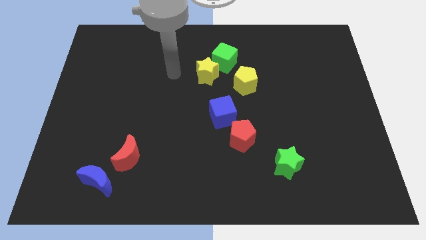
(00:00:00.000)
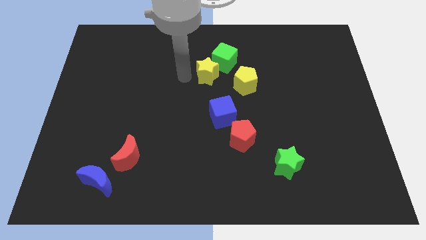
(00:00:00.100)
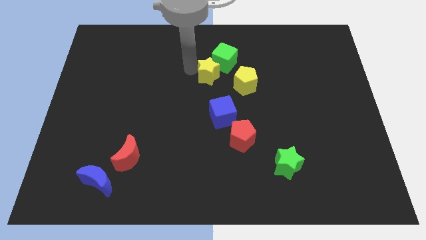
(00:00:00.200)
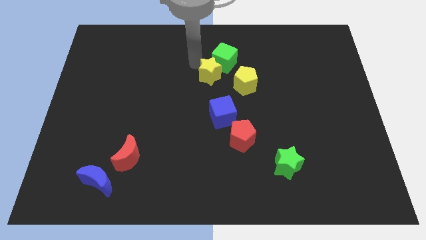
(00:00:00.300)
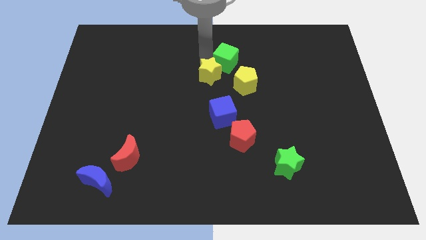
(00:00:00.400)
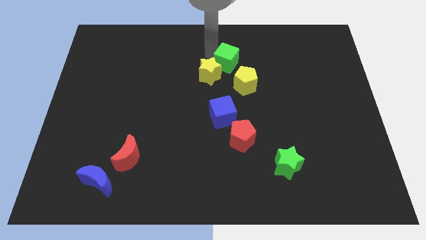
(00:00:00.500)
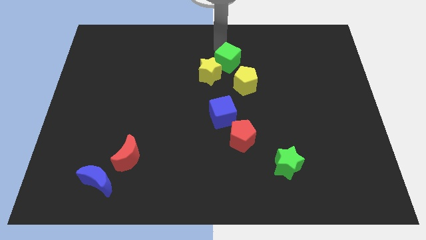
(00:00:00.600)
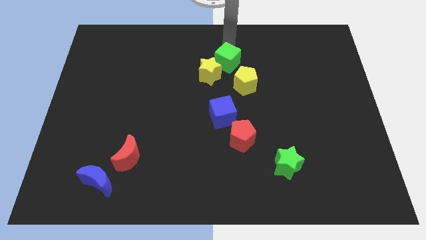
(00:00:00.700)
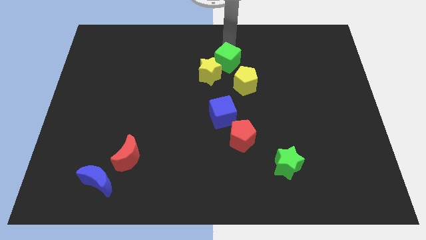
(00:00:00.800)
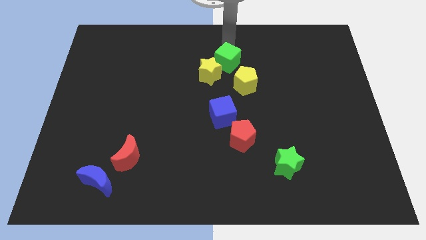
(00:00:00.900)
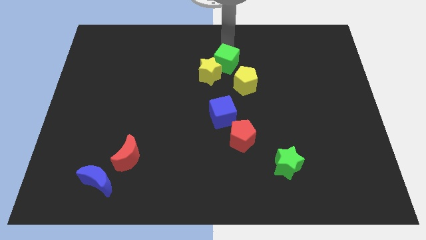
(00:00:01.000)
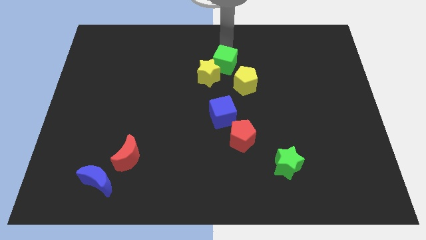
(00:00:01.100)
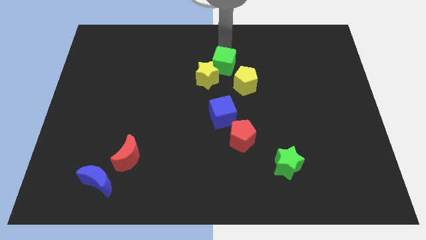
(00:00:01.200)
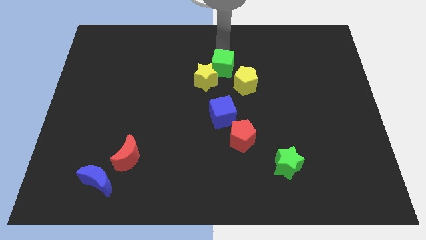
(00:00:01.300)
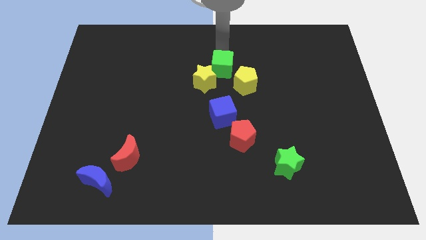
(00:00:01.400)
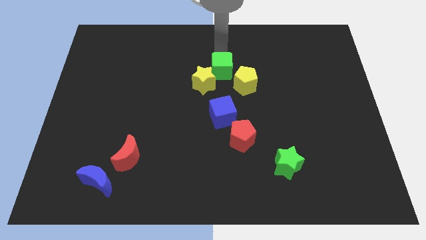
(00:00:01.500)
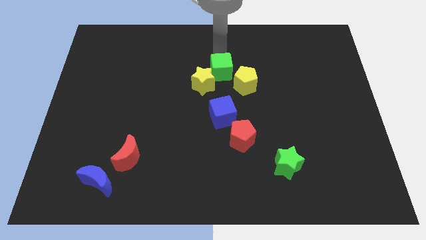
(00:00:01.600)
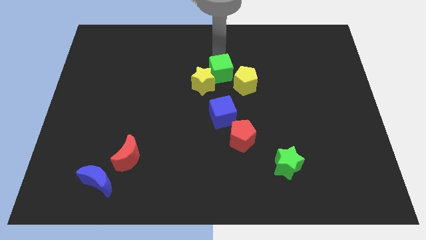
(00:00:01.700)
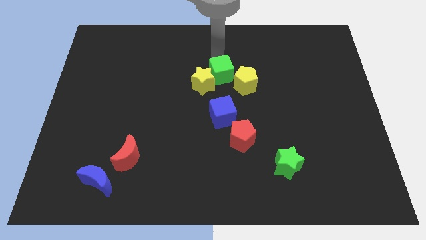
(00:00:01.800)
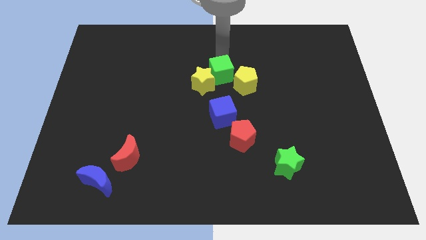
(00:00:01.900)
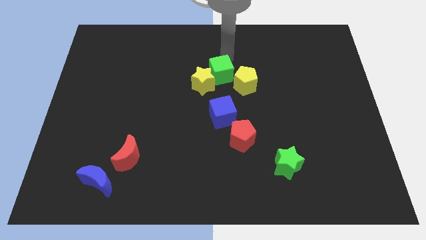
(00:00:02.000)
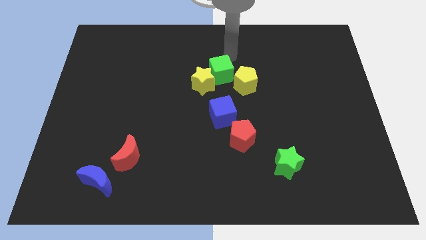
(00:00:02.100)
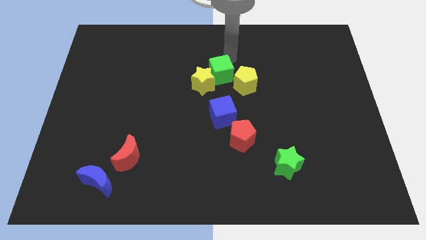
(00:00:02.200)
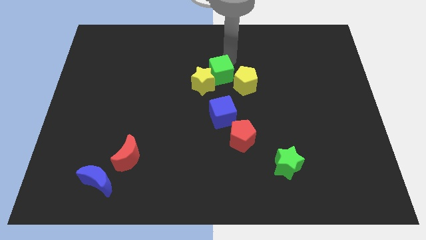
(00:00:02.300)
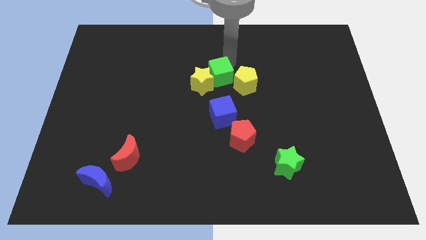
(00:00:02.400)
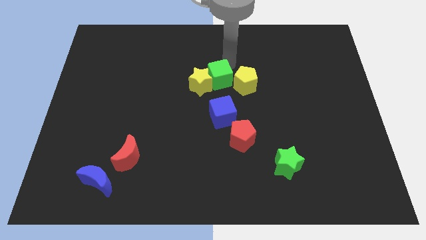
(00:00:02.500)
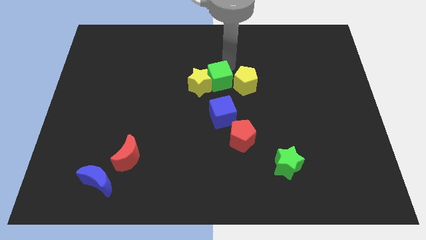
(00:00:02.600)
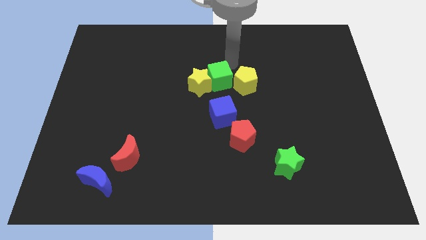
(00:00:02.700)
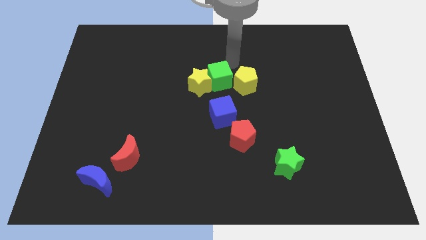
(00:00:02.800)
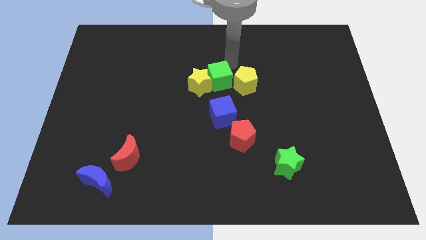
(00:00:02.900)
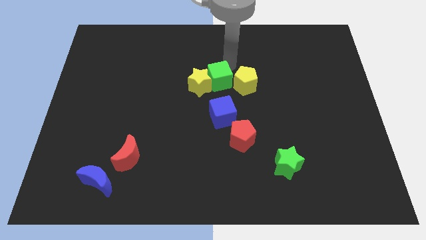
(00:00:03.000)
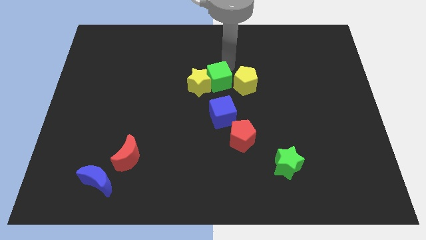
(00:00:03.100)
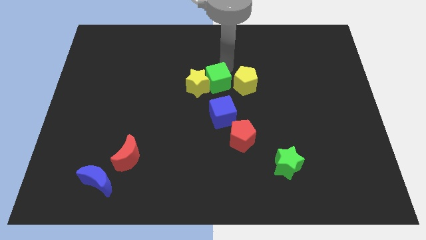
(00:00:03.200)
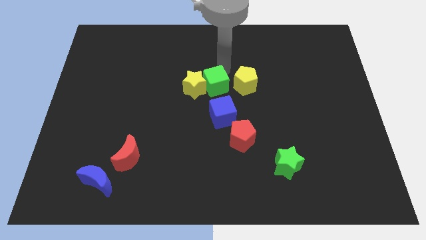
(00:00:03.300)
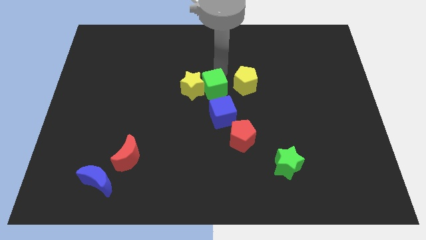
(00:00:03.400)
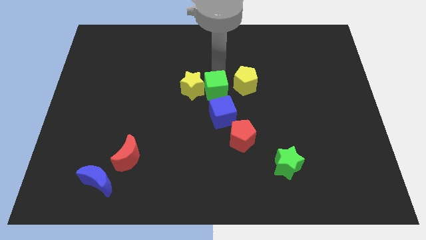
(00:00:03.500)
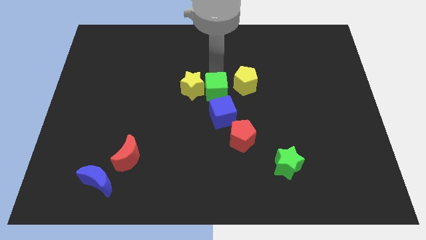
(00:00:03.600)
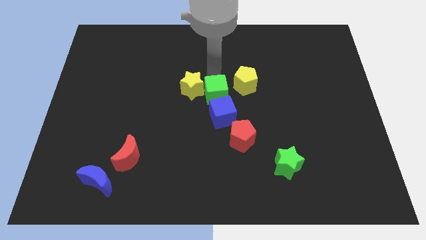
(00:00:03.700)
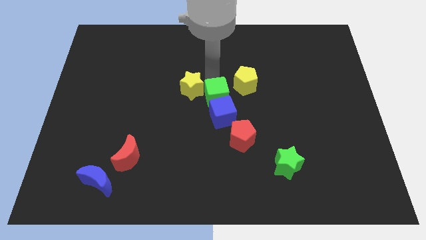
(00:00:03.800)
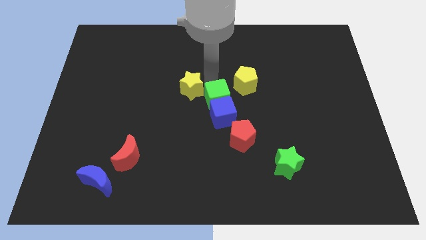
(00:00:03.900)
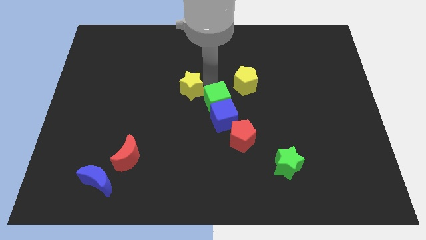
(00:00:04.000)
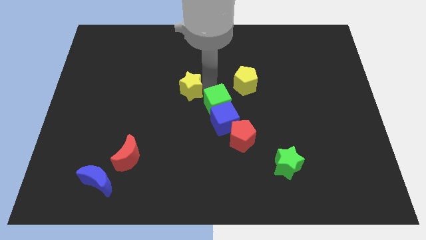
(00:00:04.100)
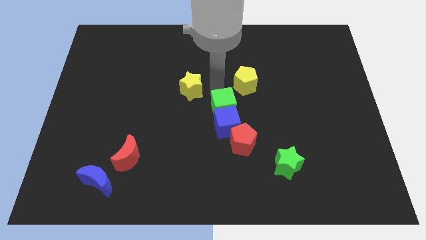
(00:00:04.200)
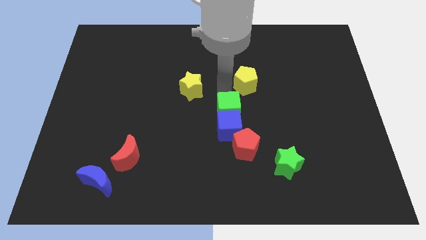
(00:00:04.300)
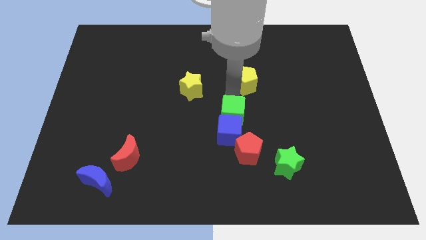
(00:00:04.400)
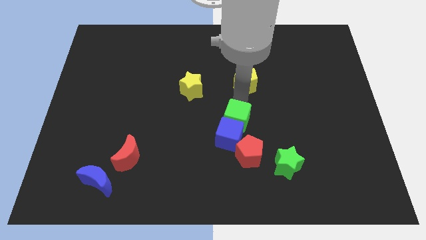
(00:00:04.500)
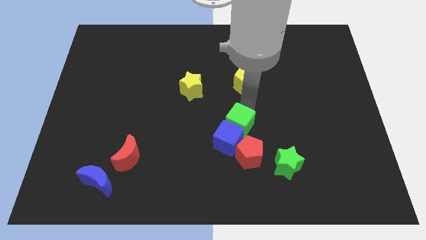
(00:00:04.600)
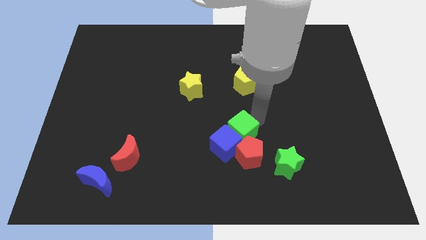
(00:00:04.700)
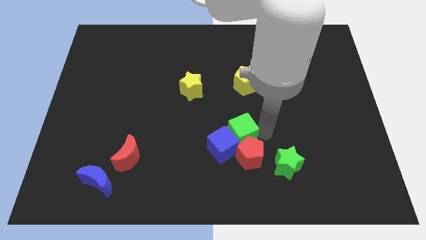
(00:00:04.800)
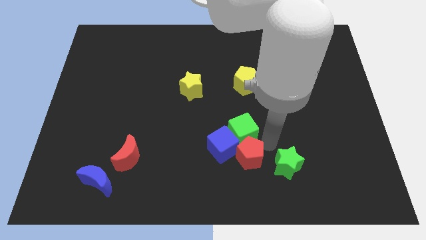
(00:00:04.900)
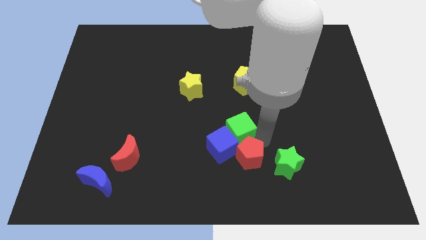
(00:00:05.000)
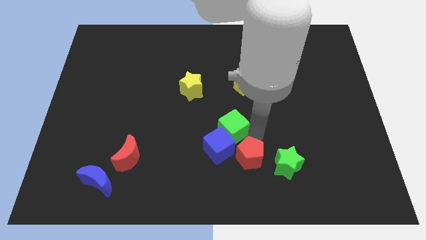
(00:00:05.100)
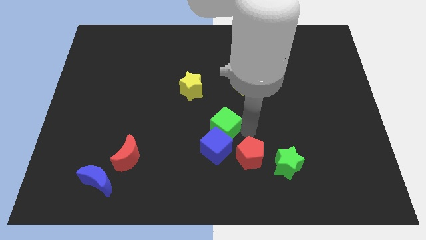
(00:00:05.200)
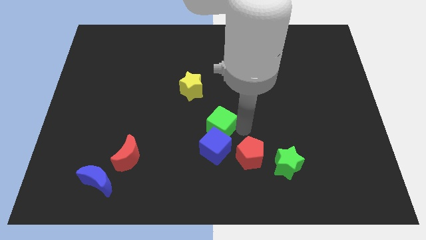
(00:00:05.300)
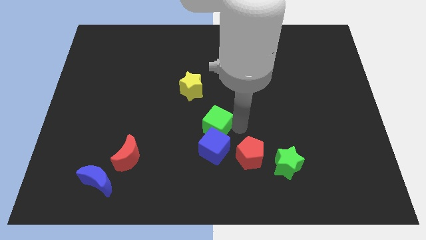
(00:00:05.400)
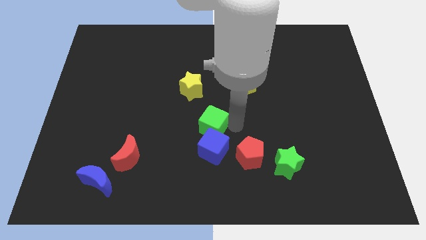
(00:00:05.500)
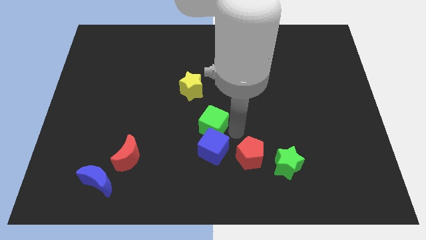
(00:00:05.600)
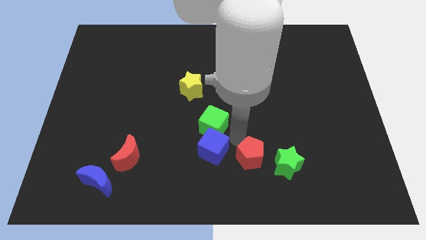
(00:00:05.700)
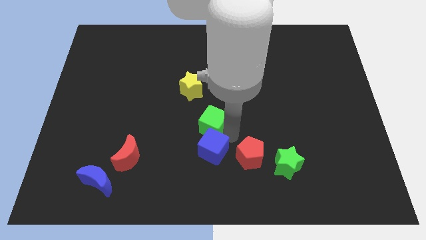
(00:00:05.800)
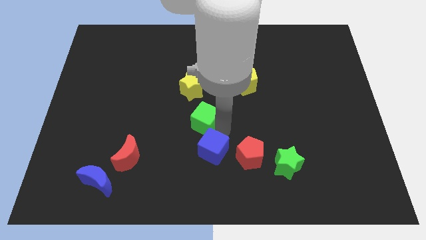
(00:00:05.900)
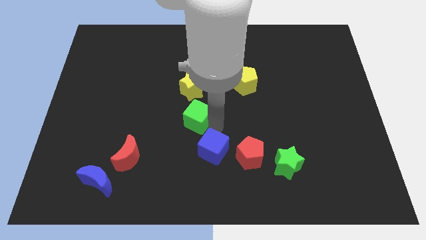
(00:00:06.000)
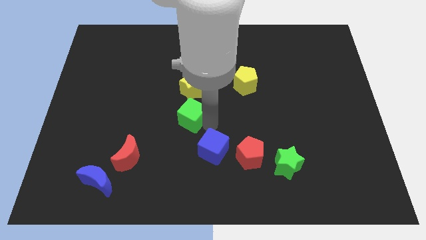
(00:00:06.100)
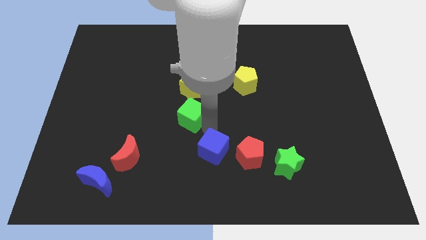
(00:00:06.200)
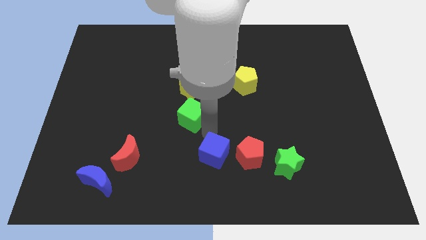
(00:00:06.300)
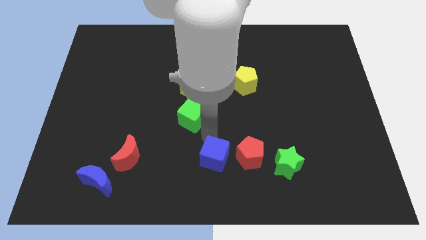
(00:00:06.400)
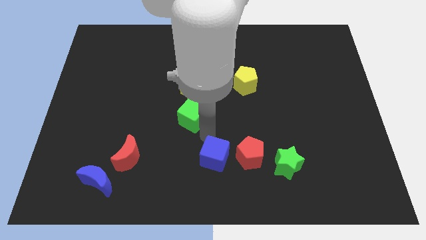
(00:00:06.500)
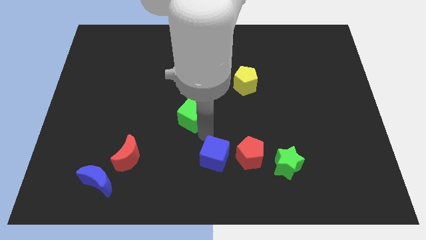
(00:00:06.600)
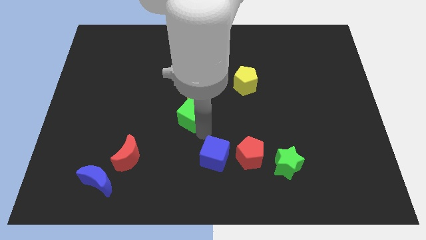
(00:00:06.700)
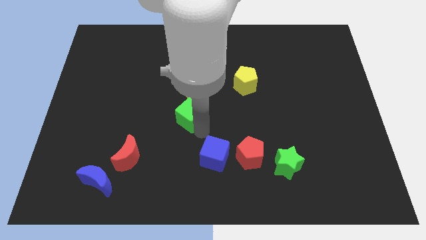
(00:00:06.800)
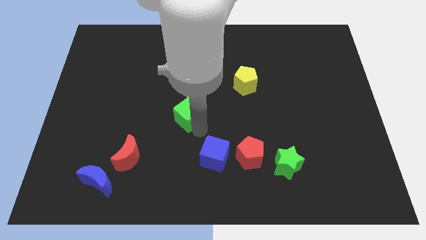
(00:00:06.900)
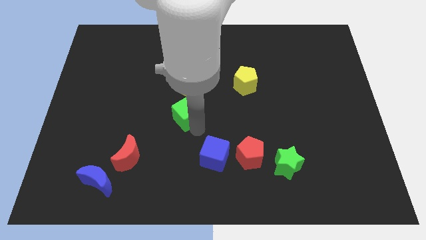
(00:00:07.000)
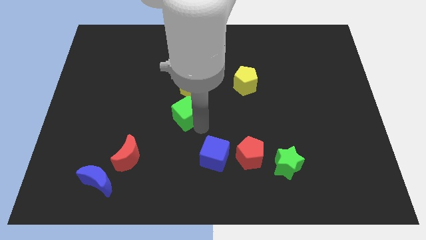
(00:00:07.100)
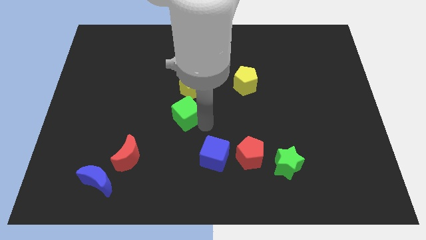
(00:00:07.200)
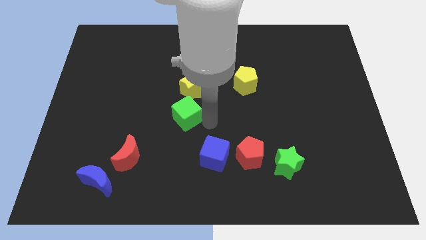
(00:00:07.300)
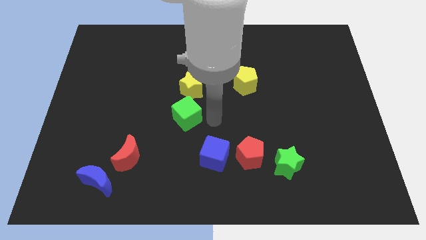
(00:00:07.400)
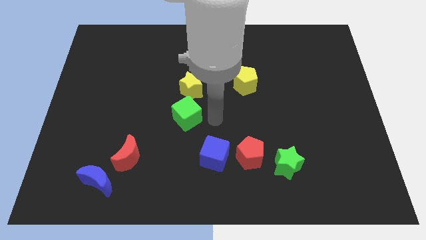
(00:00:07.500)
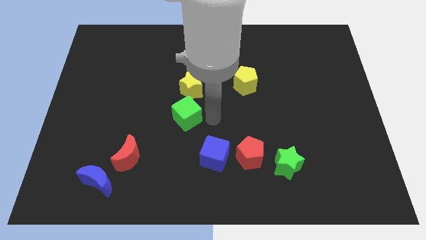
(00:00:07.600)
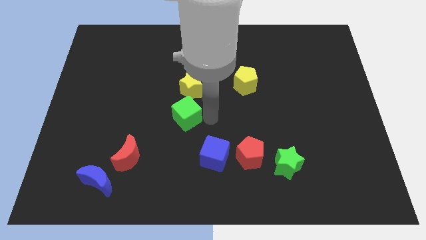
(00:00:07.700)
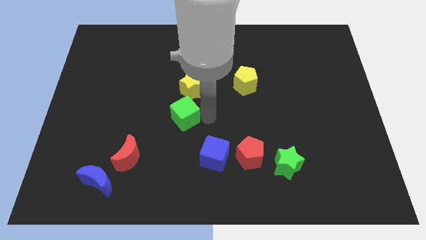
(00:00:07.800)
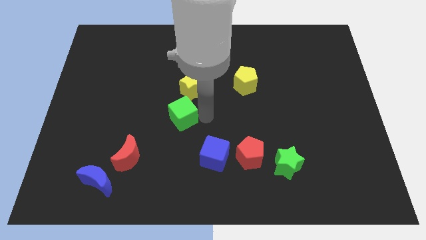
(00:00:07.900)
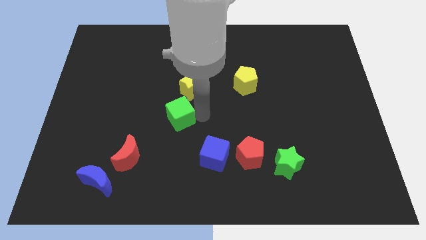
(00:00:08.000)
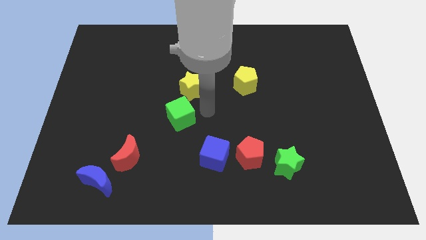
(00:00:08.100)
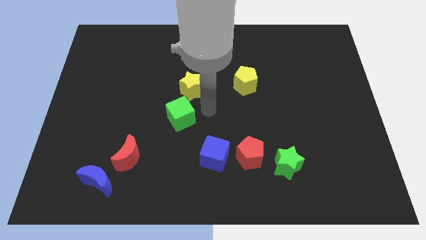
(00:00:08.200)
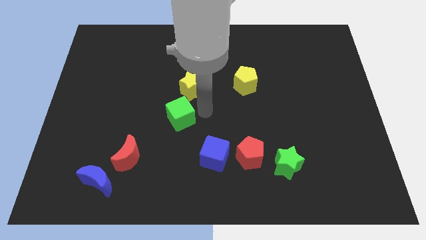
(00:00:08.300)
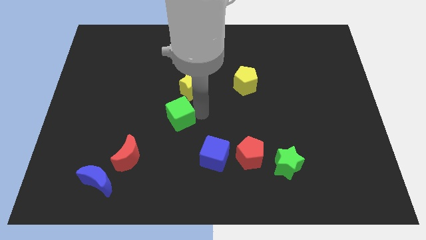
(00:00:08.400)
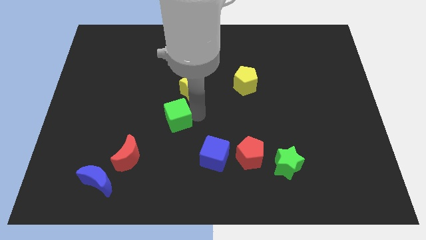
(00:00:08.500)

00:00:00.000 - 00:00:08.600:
move the green cube downwards and left diagonally
